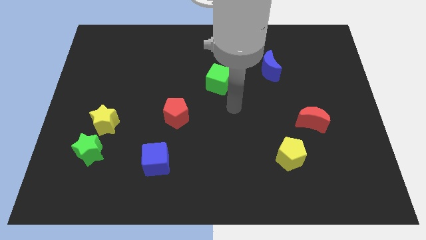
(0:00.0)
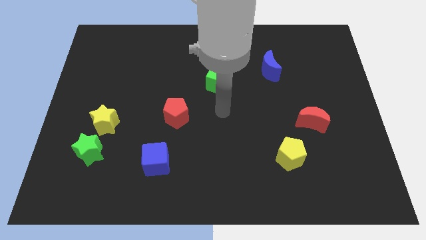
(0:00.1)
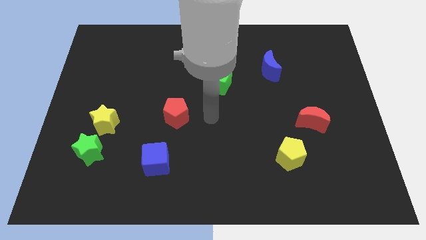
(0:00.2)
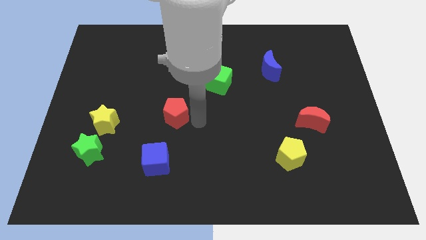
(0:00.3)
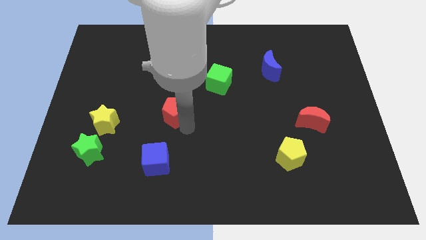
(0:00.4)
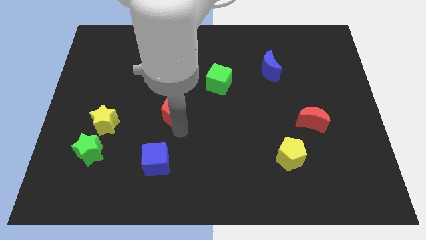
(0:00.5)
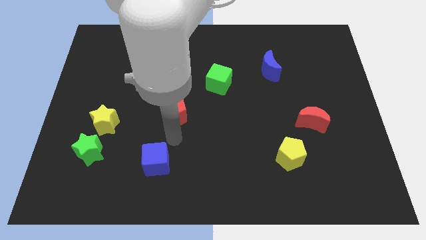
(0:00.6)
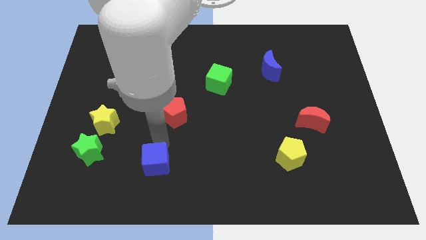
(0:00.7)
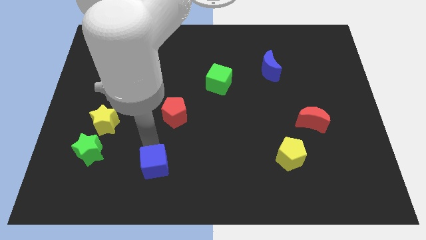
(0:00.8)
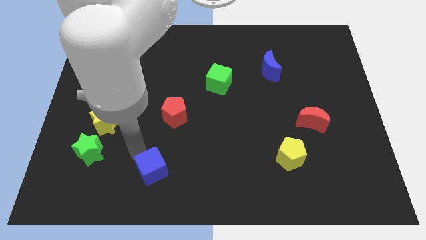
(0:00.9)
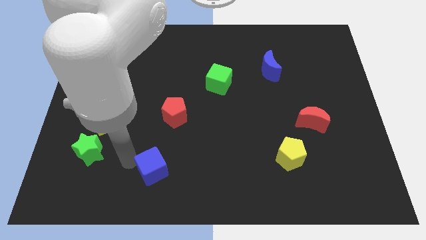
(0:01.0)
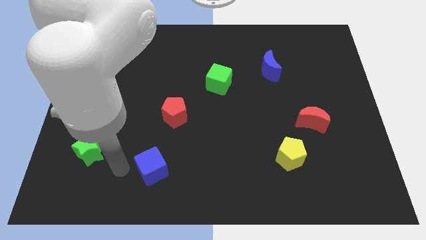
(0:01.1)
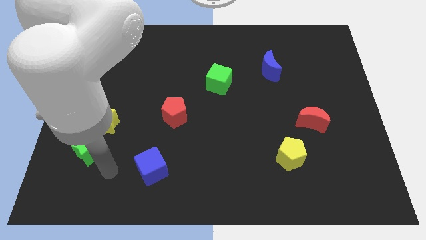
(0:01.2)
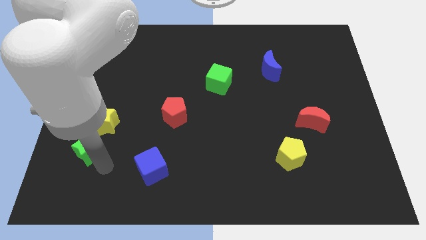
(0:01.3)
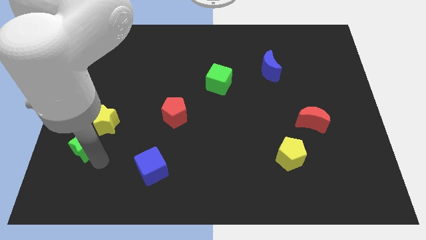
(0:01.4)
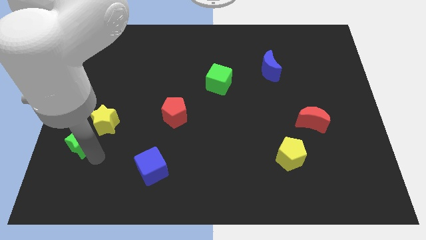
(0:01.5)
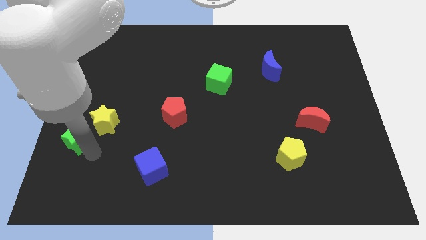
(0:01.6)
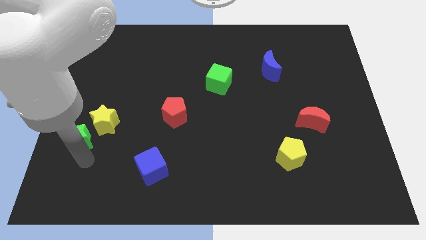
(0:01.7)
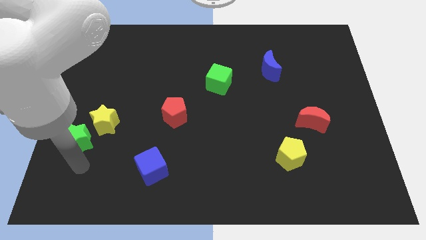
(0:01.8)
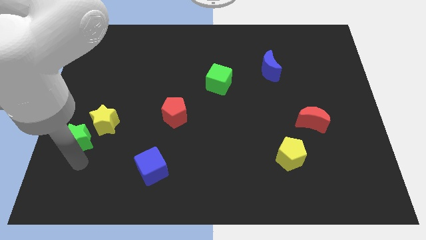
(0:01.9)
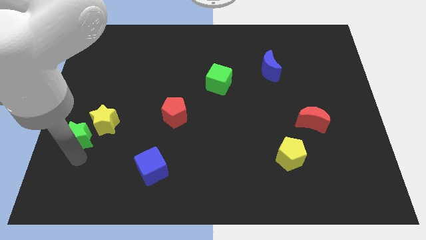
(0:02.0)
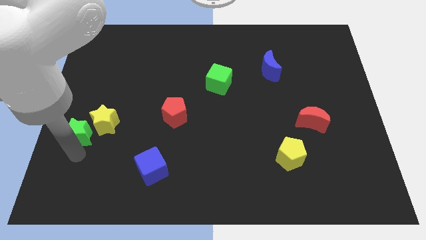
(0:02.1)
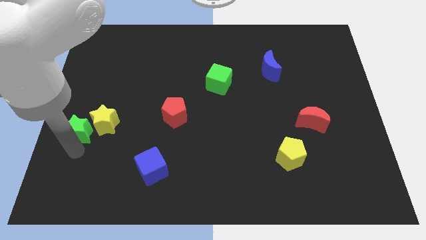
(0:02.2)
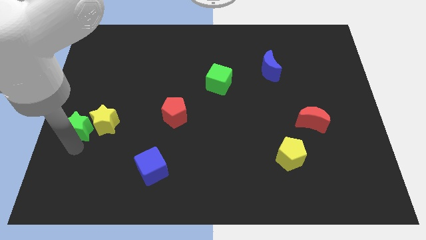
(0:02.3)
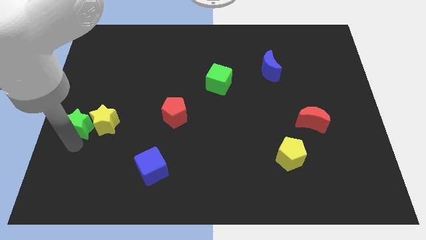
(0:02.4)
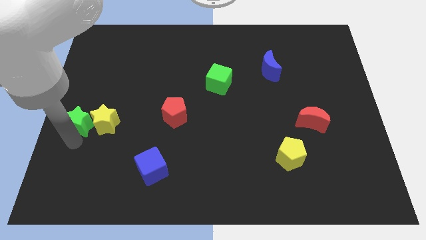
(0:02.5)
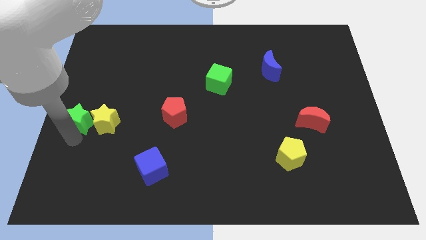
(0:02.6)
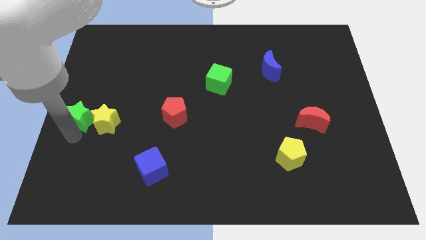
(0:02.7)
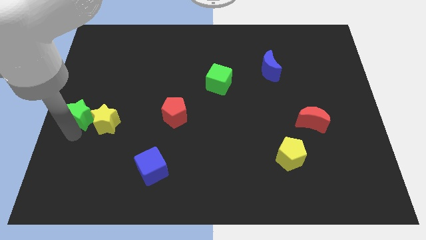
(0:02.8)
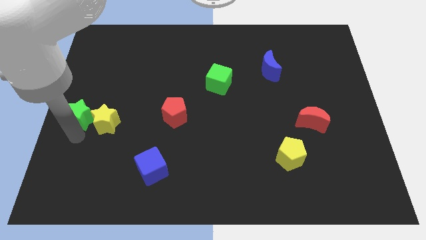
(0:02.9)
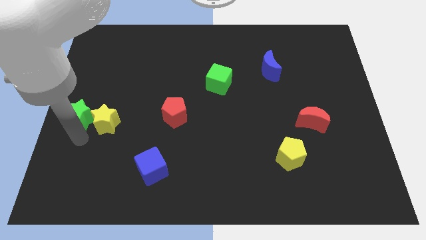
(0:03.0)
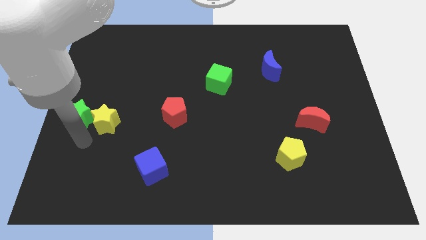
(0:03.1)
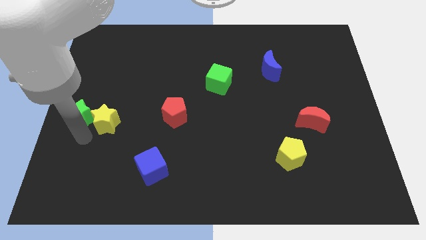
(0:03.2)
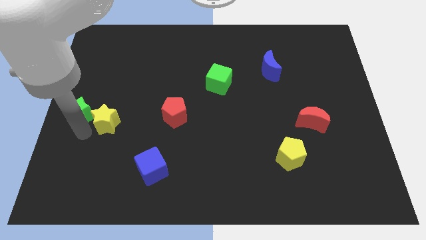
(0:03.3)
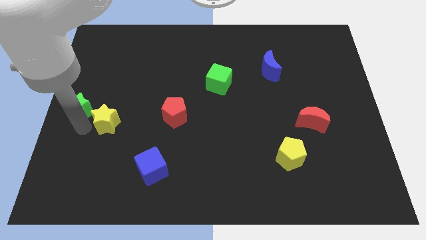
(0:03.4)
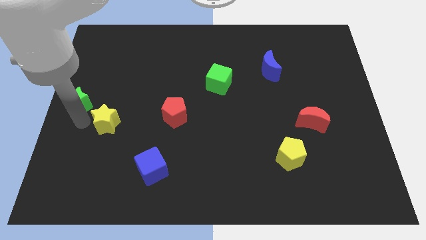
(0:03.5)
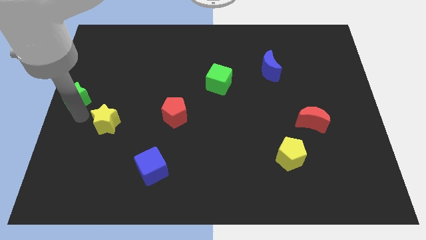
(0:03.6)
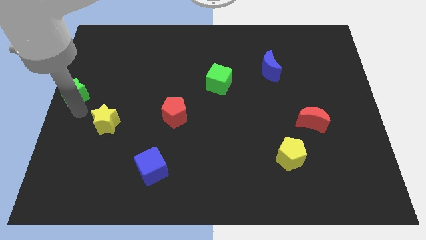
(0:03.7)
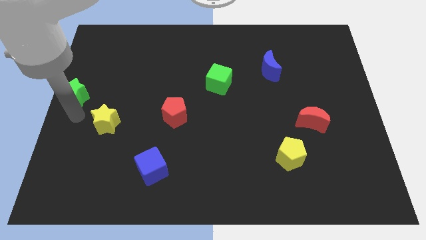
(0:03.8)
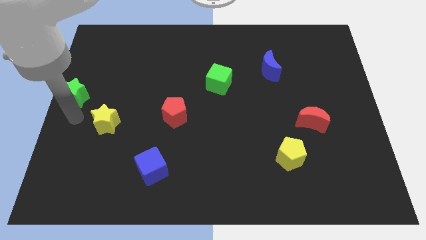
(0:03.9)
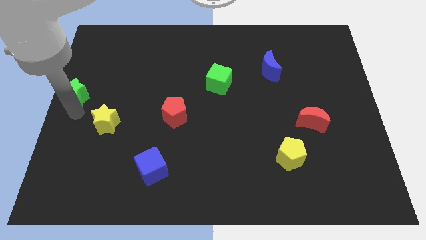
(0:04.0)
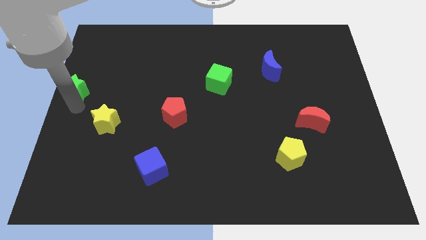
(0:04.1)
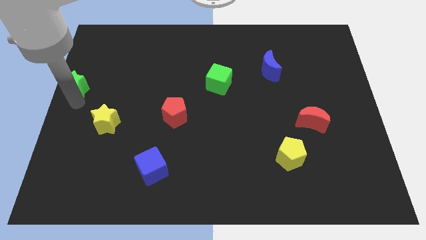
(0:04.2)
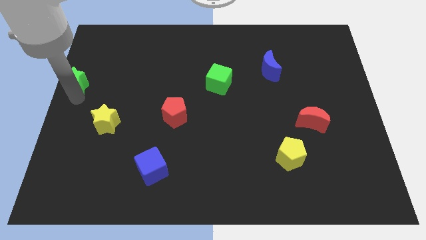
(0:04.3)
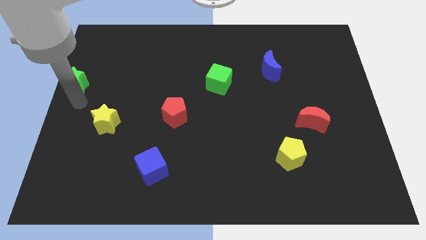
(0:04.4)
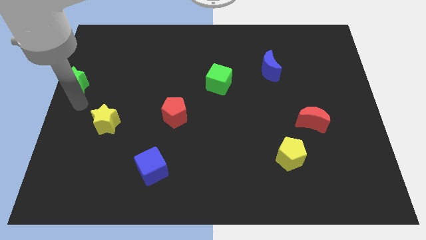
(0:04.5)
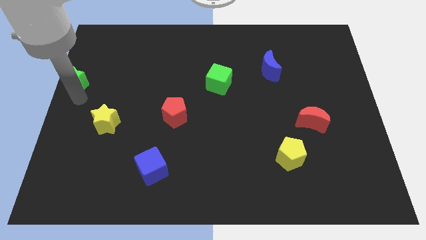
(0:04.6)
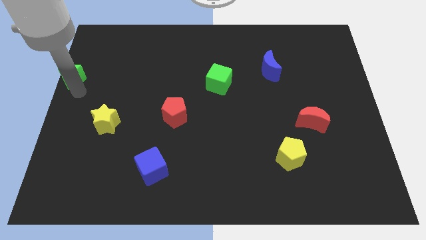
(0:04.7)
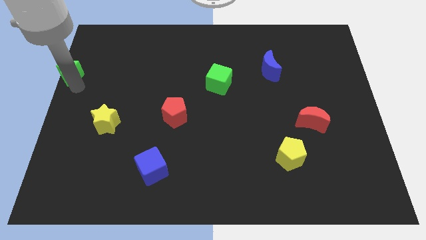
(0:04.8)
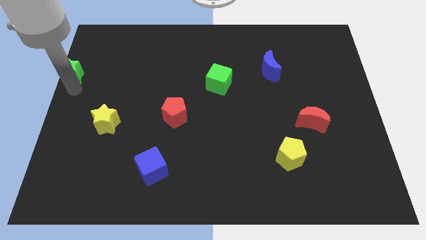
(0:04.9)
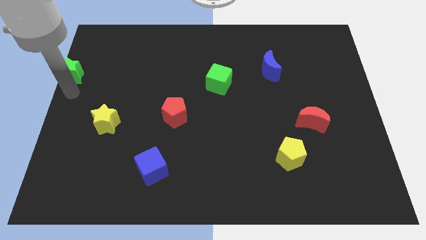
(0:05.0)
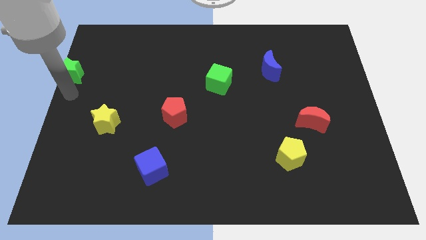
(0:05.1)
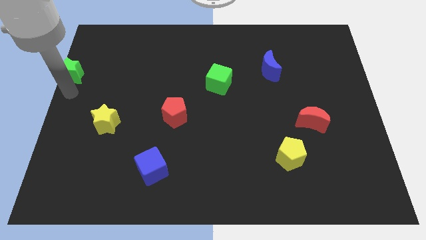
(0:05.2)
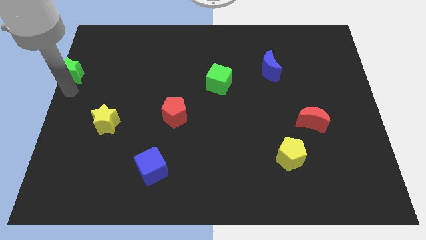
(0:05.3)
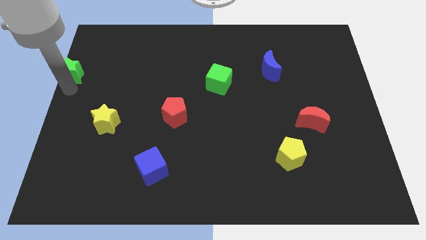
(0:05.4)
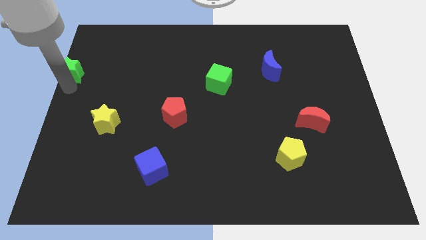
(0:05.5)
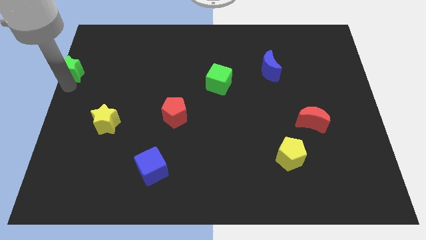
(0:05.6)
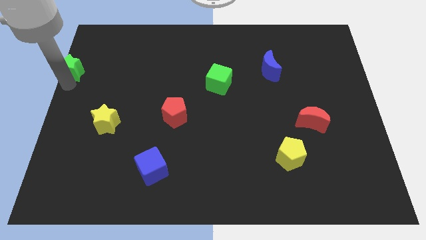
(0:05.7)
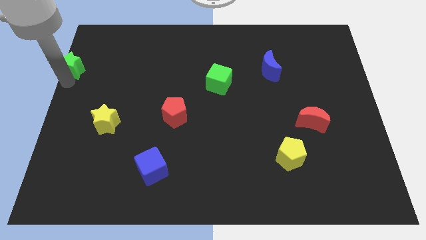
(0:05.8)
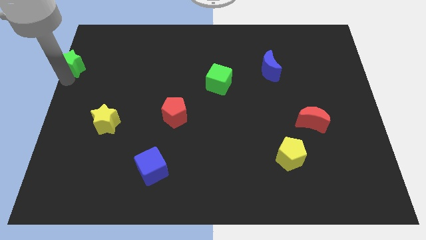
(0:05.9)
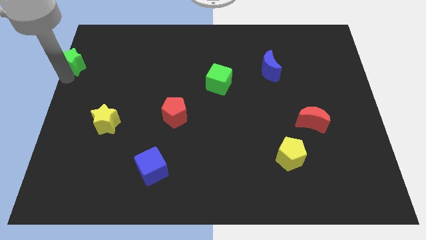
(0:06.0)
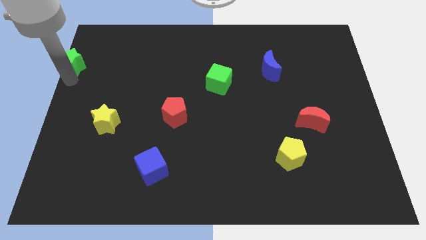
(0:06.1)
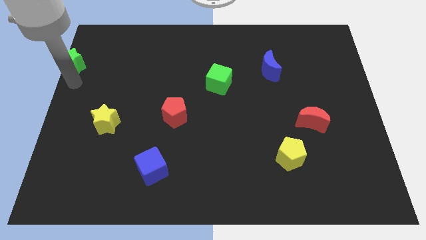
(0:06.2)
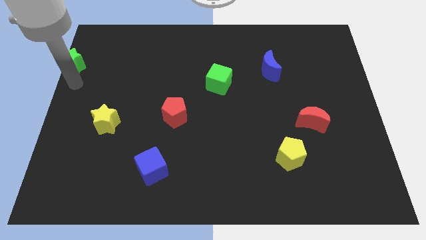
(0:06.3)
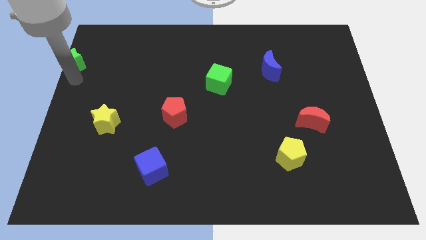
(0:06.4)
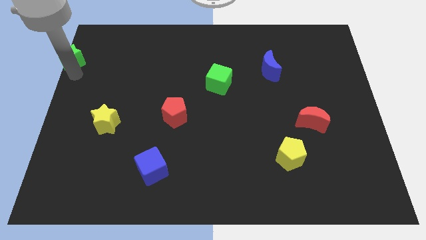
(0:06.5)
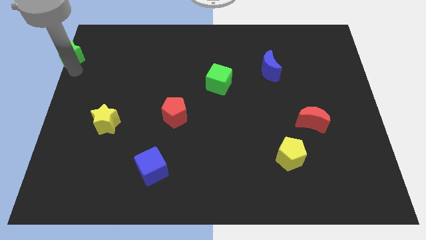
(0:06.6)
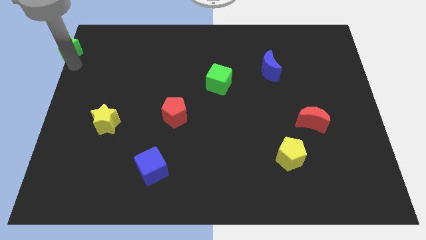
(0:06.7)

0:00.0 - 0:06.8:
move the green star to the upper left corner
